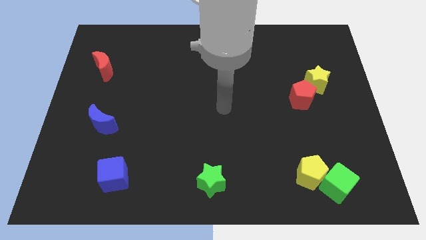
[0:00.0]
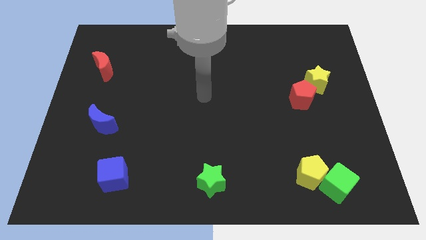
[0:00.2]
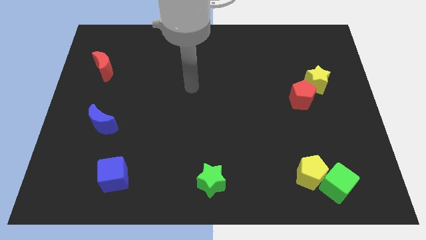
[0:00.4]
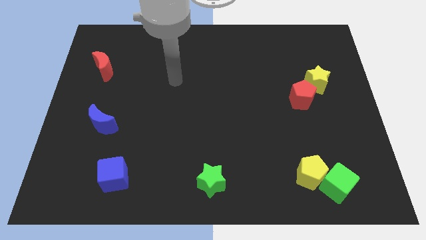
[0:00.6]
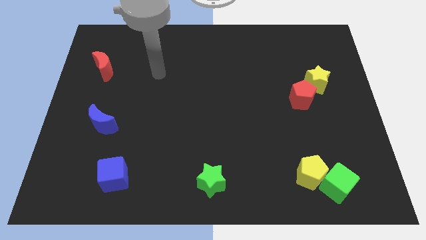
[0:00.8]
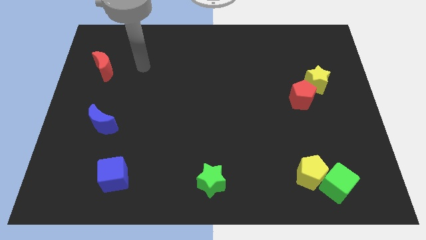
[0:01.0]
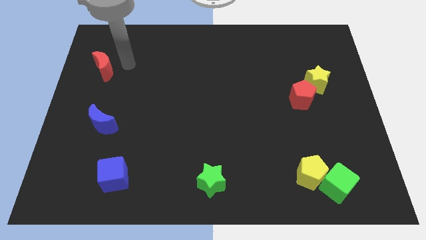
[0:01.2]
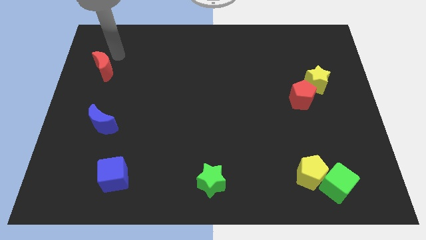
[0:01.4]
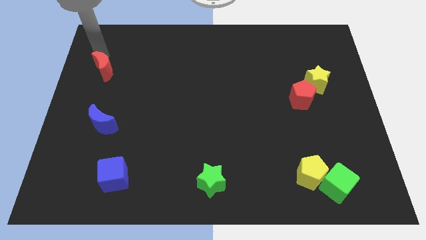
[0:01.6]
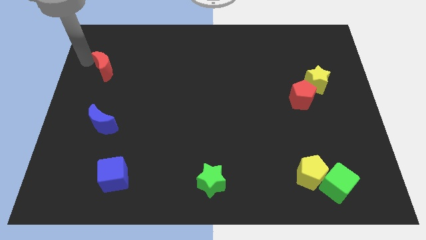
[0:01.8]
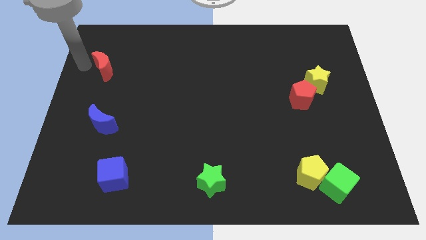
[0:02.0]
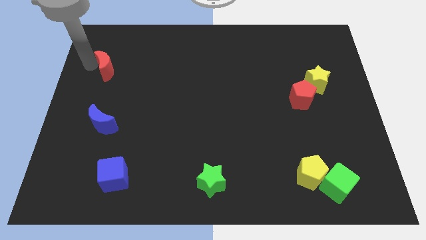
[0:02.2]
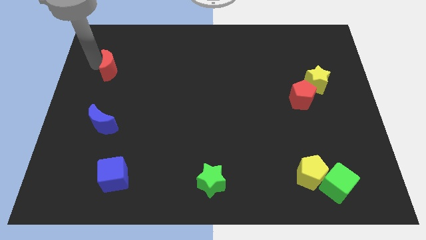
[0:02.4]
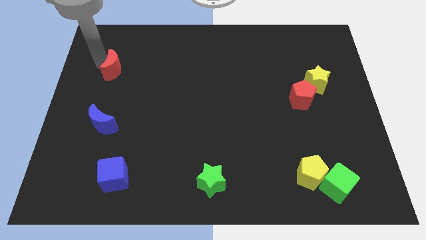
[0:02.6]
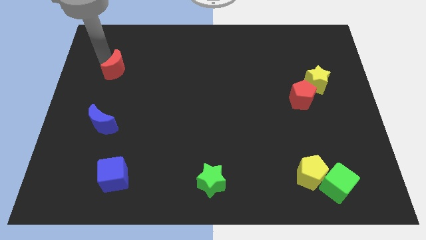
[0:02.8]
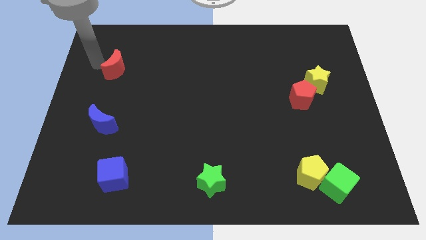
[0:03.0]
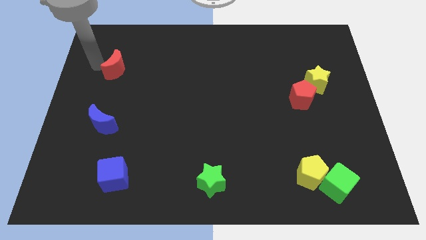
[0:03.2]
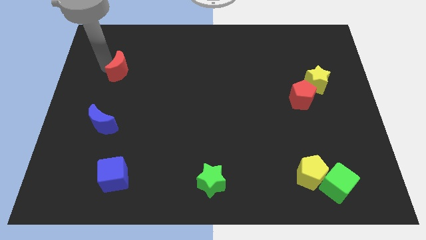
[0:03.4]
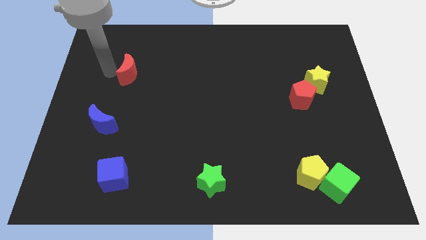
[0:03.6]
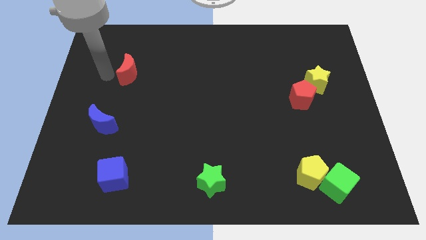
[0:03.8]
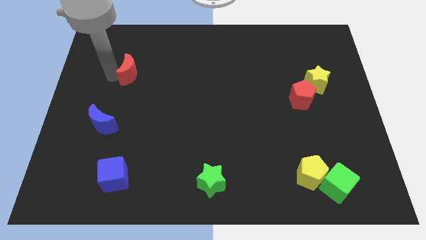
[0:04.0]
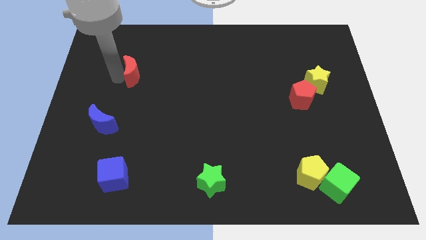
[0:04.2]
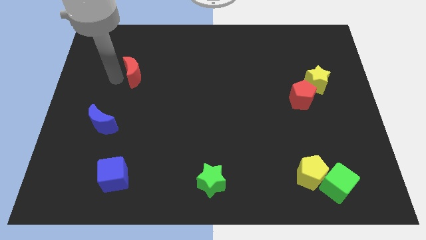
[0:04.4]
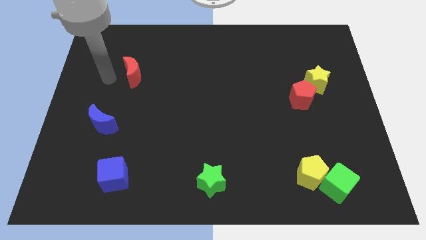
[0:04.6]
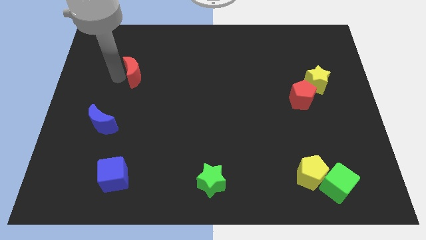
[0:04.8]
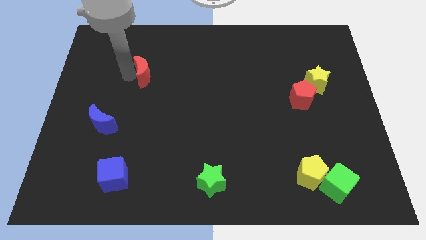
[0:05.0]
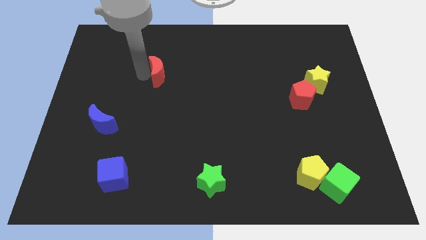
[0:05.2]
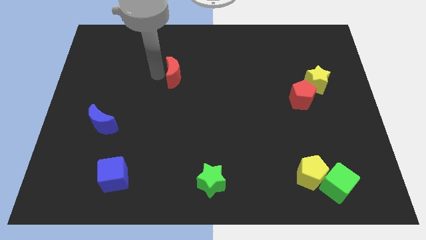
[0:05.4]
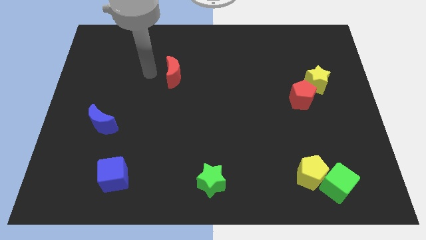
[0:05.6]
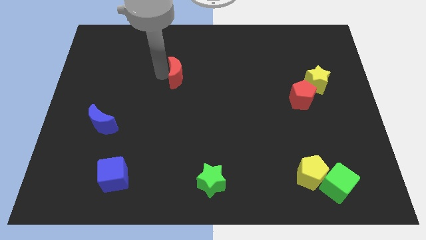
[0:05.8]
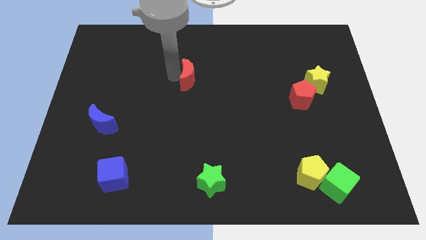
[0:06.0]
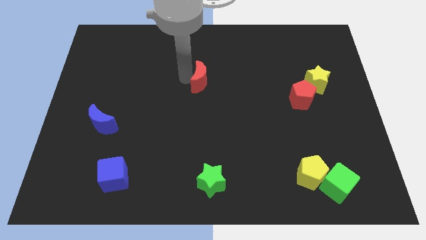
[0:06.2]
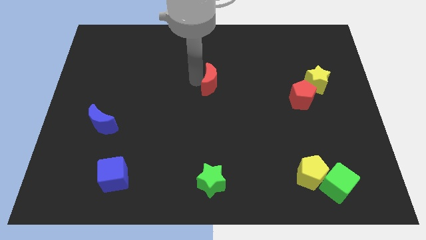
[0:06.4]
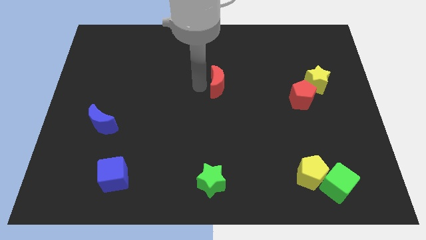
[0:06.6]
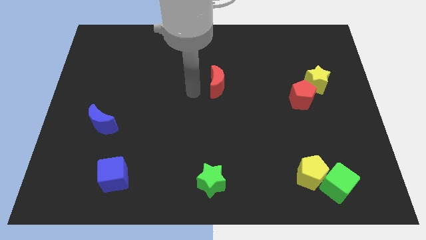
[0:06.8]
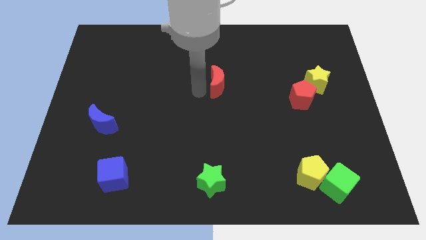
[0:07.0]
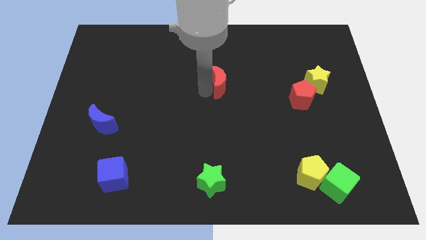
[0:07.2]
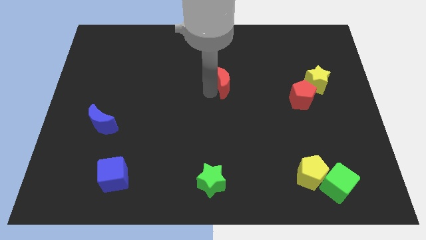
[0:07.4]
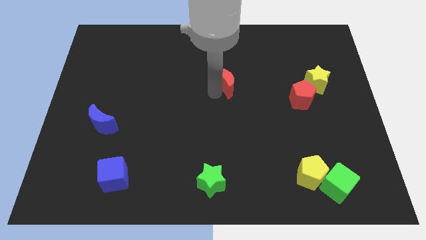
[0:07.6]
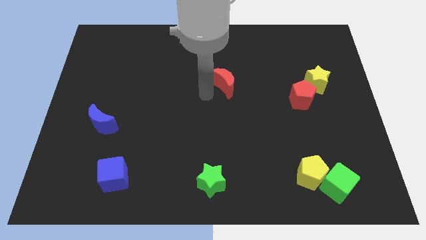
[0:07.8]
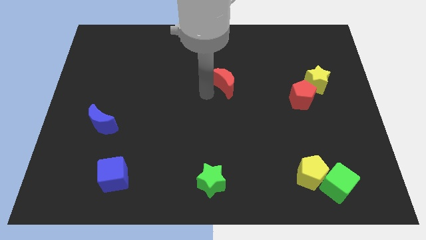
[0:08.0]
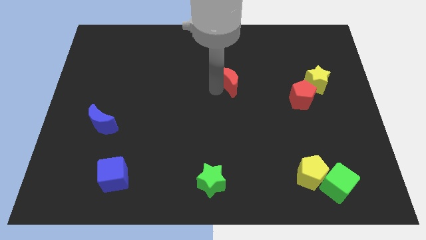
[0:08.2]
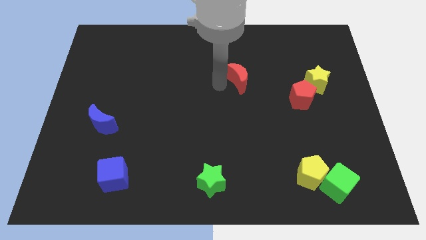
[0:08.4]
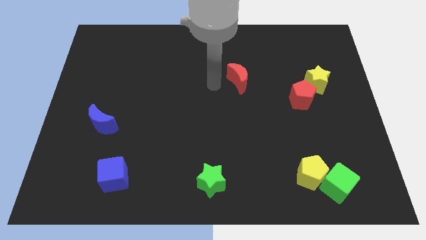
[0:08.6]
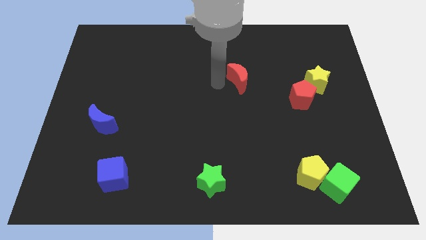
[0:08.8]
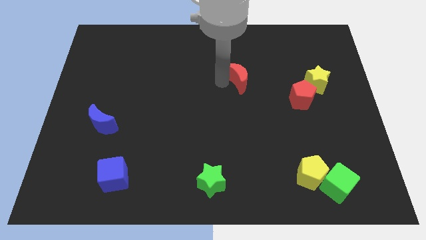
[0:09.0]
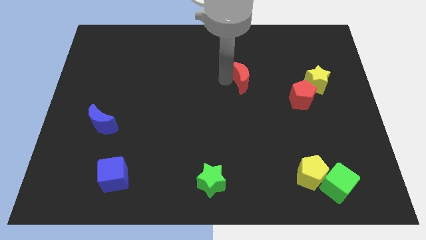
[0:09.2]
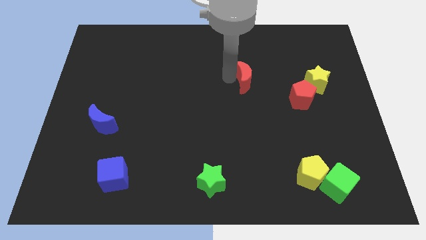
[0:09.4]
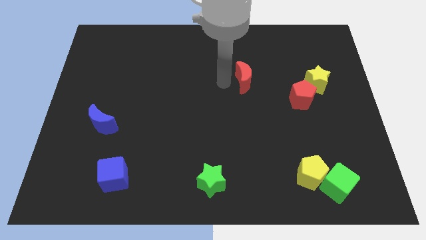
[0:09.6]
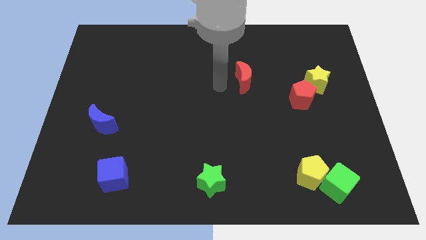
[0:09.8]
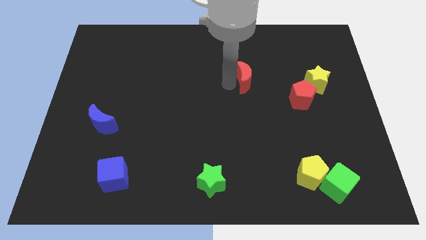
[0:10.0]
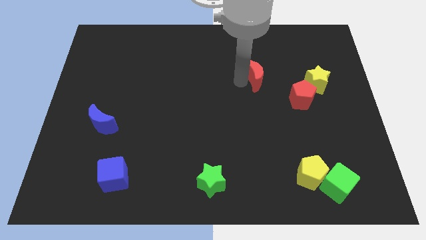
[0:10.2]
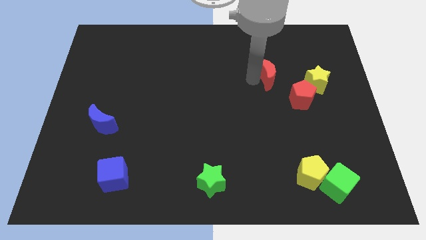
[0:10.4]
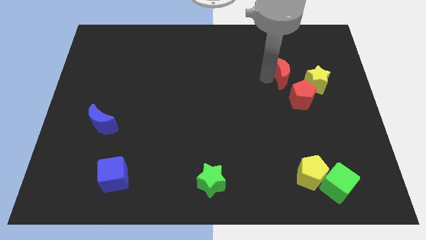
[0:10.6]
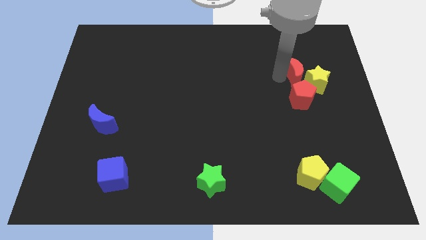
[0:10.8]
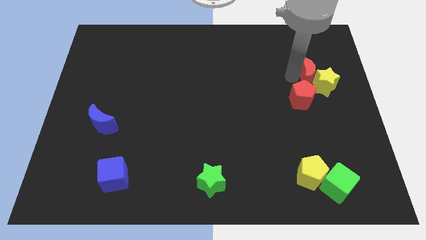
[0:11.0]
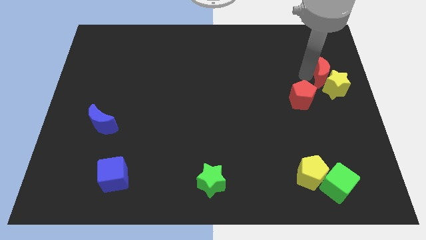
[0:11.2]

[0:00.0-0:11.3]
push the red moon to the right side

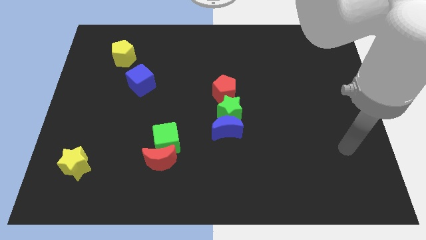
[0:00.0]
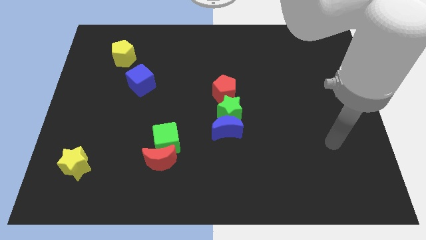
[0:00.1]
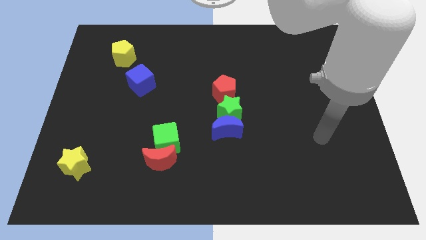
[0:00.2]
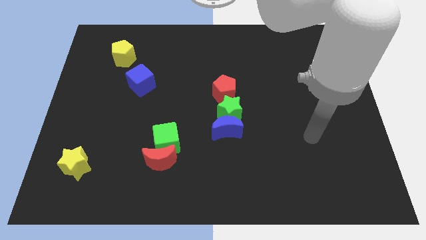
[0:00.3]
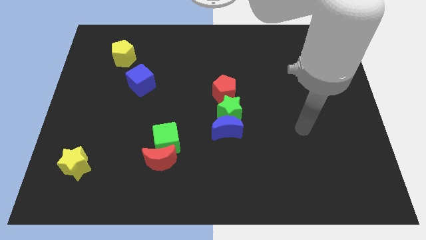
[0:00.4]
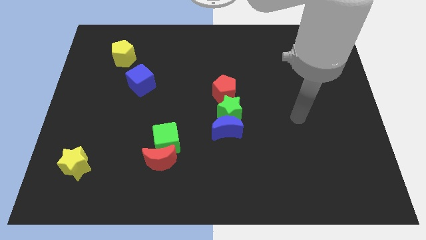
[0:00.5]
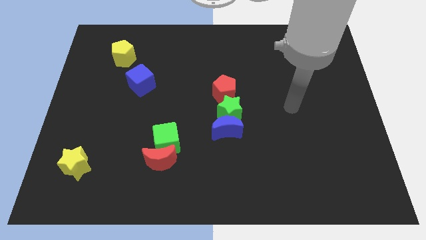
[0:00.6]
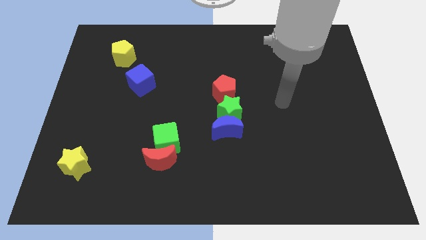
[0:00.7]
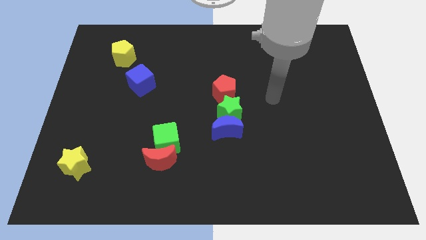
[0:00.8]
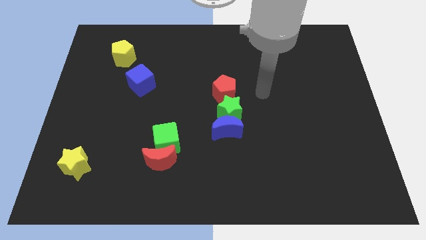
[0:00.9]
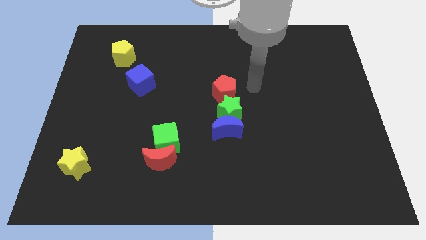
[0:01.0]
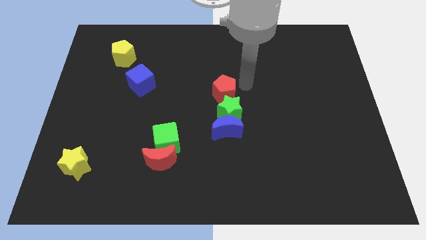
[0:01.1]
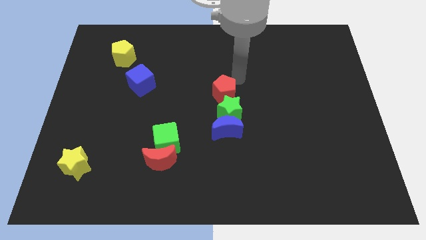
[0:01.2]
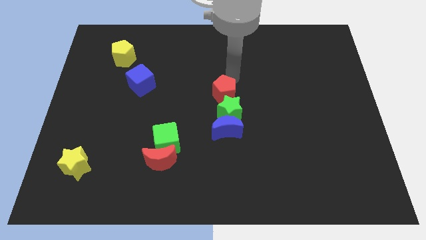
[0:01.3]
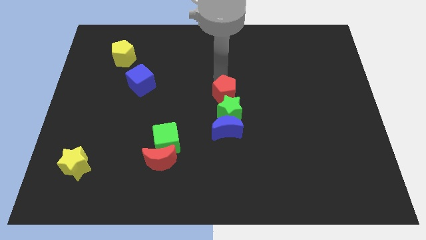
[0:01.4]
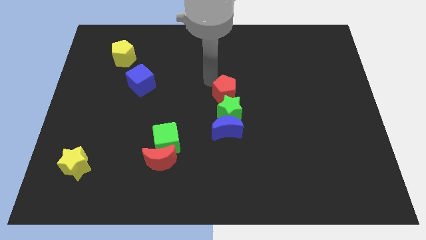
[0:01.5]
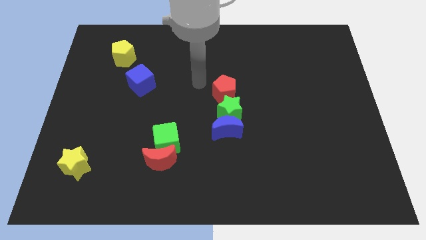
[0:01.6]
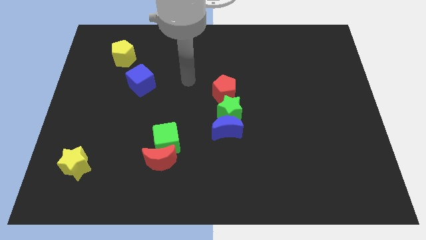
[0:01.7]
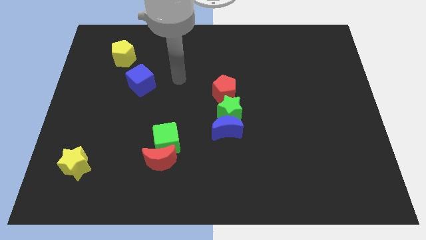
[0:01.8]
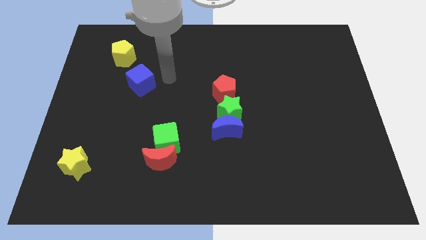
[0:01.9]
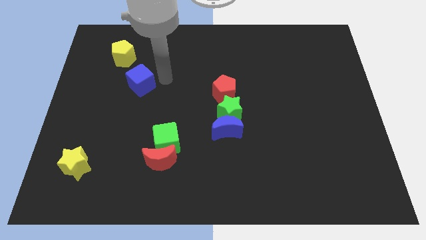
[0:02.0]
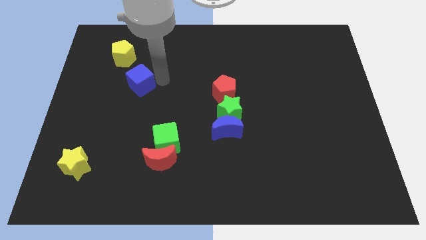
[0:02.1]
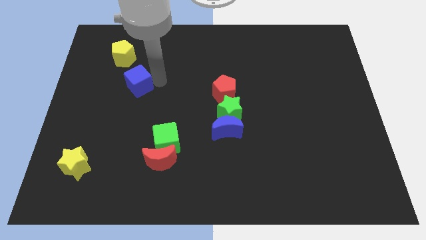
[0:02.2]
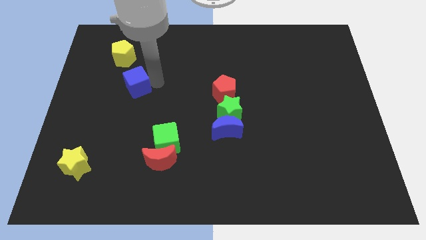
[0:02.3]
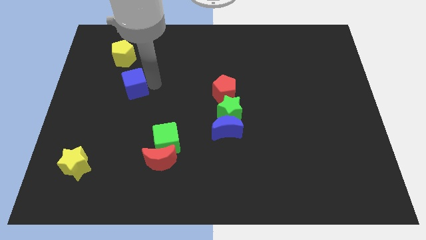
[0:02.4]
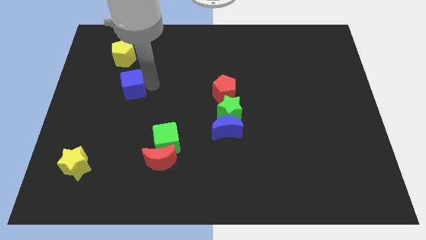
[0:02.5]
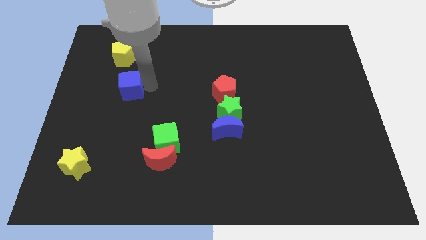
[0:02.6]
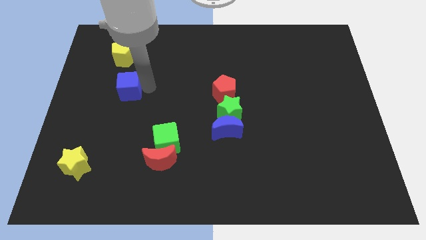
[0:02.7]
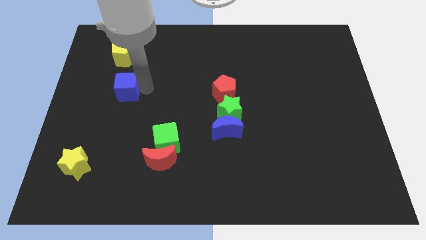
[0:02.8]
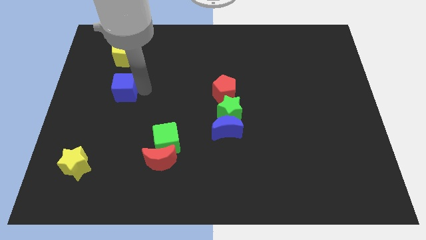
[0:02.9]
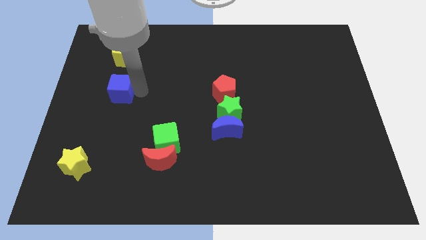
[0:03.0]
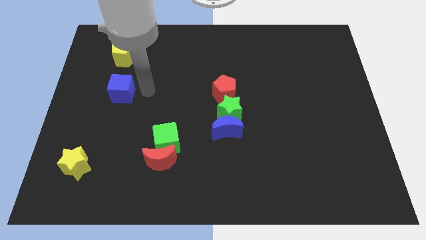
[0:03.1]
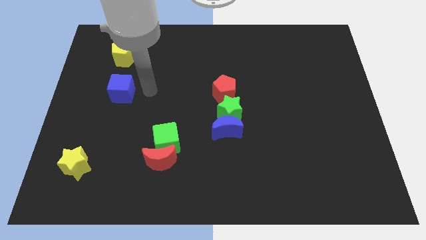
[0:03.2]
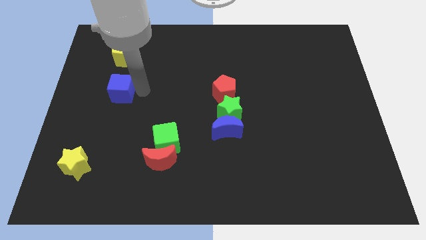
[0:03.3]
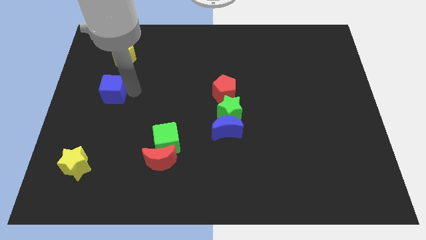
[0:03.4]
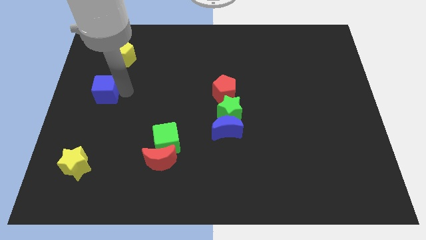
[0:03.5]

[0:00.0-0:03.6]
put the blue cube to the left side of the board
